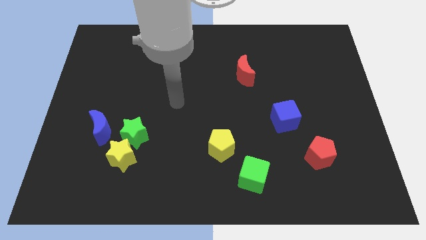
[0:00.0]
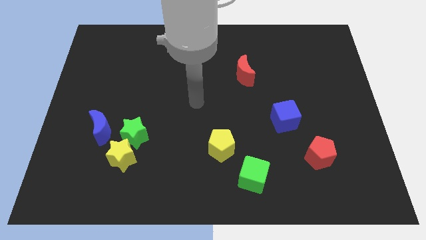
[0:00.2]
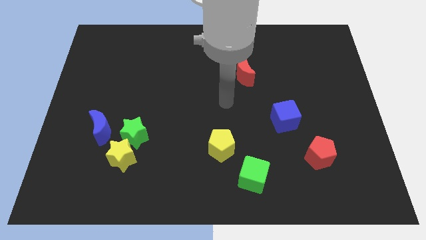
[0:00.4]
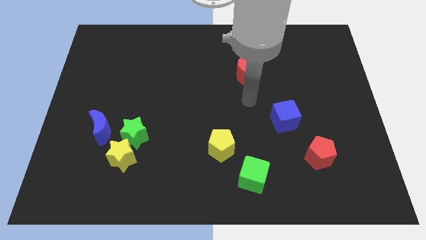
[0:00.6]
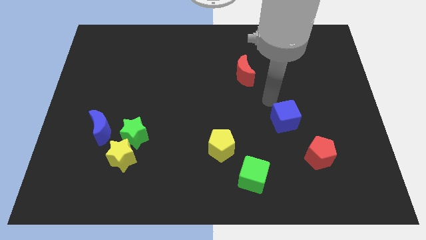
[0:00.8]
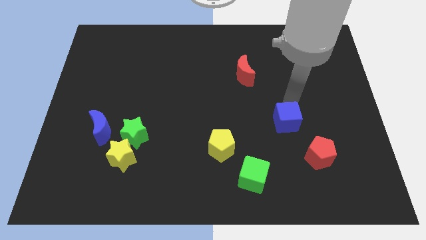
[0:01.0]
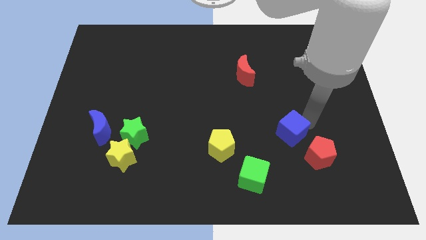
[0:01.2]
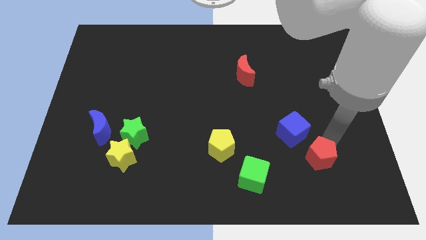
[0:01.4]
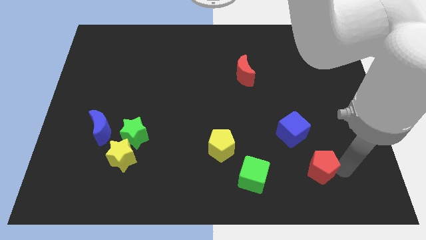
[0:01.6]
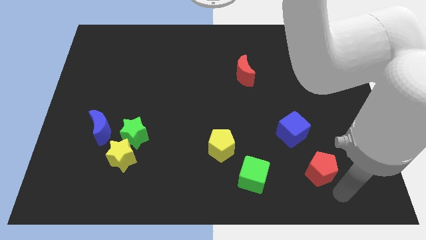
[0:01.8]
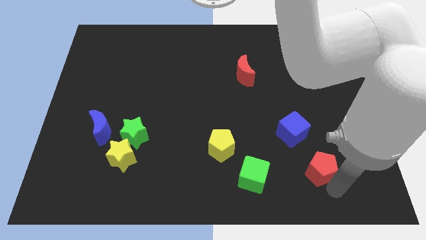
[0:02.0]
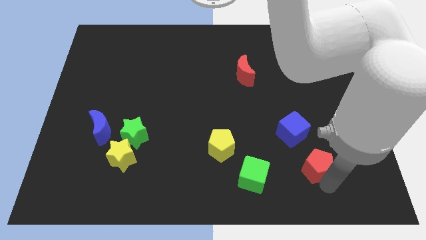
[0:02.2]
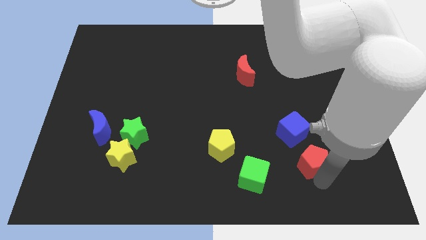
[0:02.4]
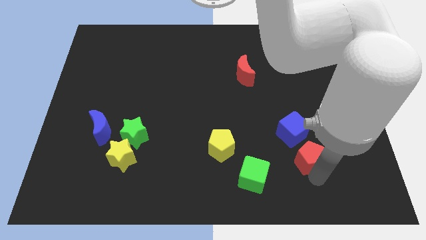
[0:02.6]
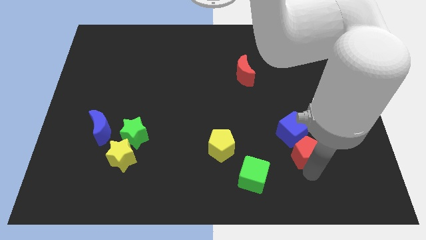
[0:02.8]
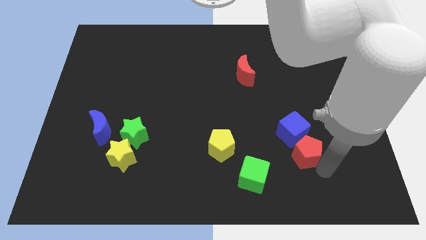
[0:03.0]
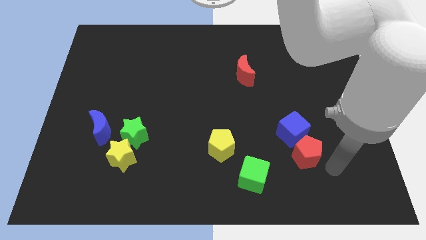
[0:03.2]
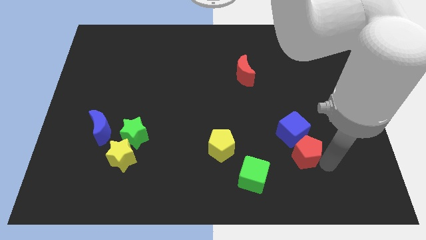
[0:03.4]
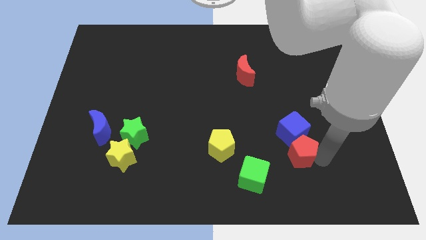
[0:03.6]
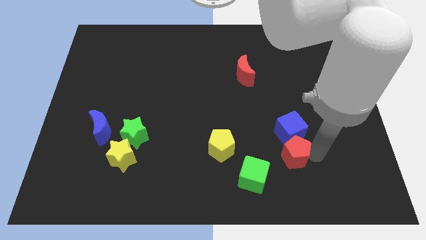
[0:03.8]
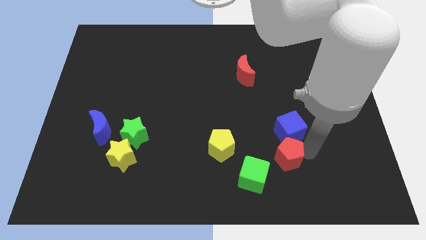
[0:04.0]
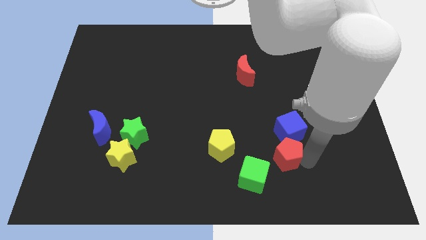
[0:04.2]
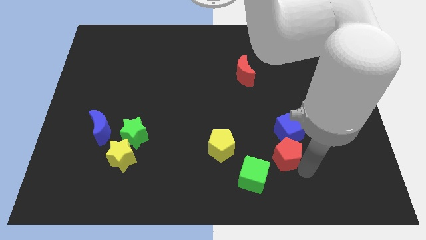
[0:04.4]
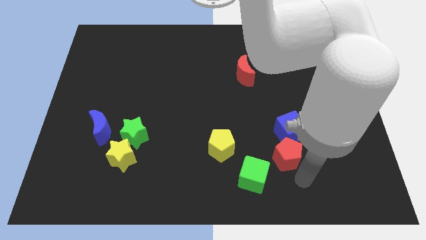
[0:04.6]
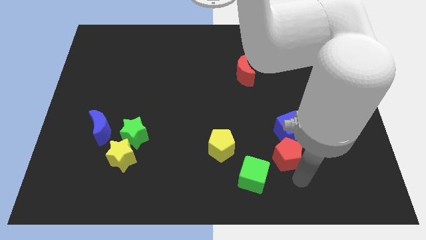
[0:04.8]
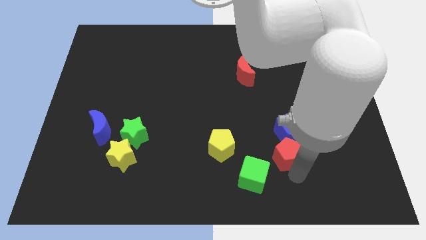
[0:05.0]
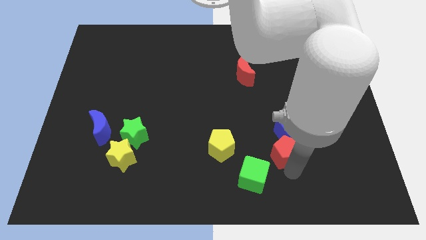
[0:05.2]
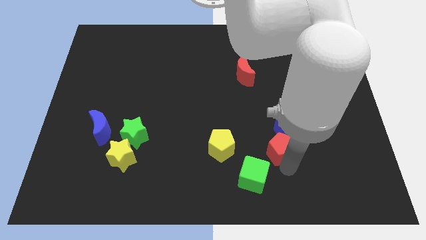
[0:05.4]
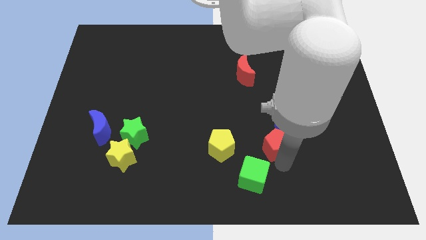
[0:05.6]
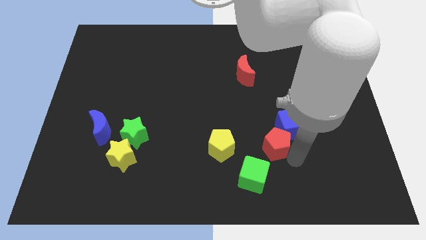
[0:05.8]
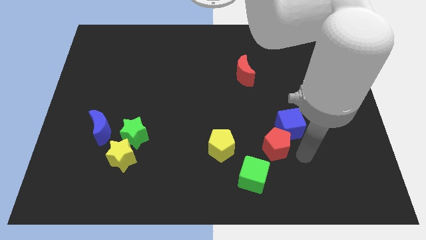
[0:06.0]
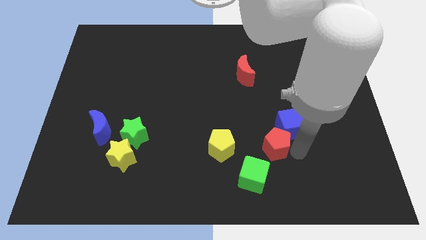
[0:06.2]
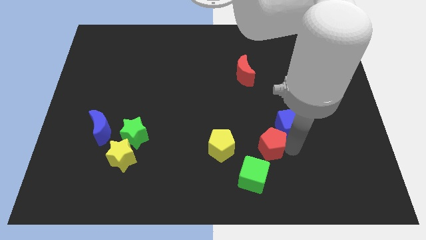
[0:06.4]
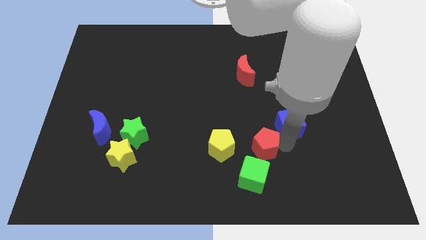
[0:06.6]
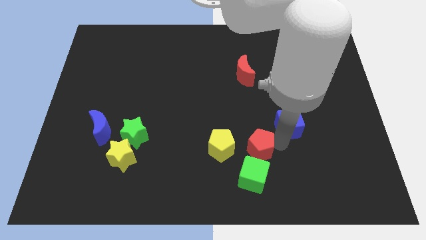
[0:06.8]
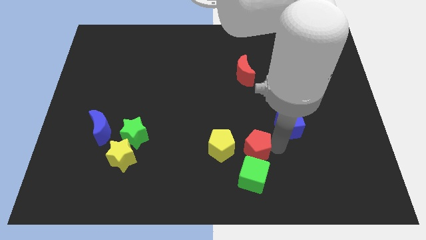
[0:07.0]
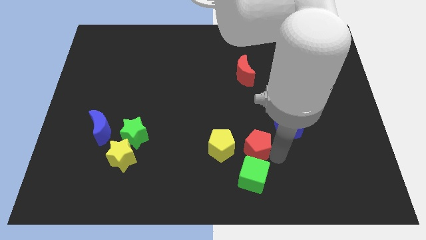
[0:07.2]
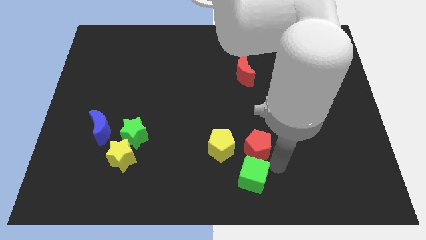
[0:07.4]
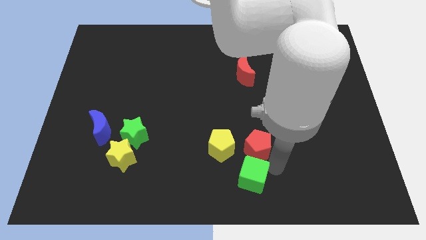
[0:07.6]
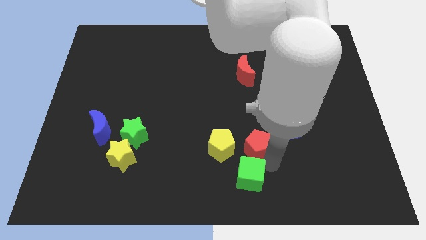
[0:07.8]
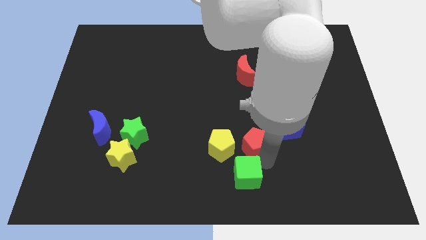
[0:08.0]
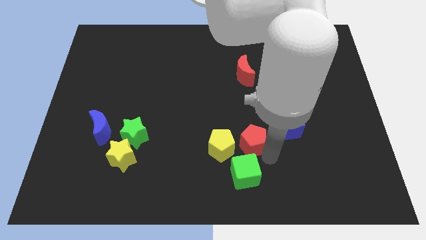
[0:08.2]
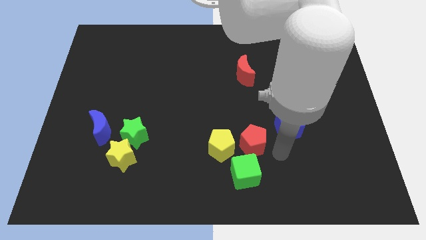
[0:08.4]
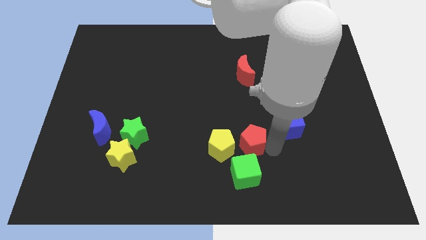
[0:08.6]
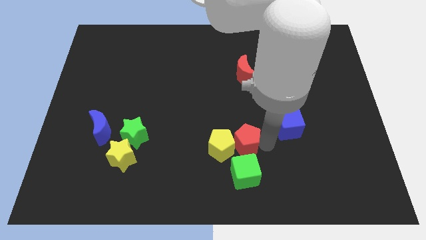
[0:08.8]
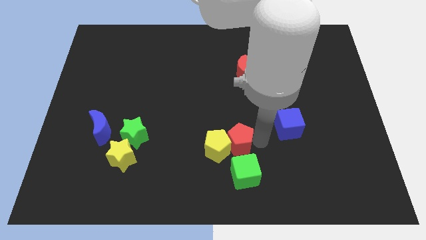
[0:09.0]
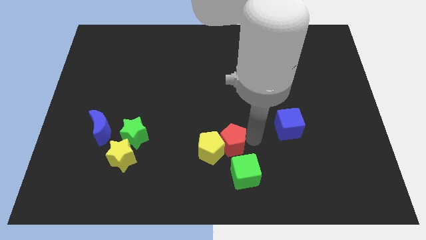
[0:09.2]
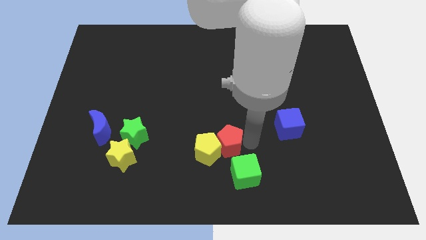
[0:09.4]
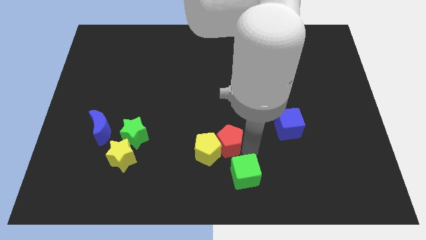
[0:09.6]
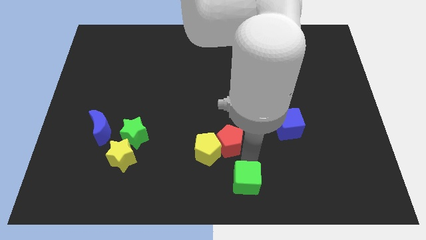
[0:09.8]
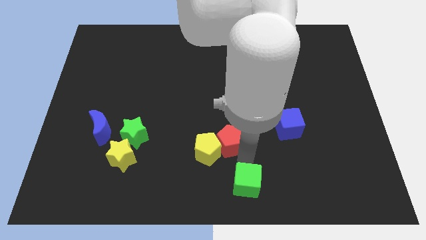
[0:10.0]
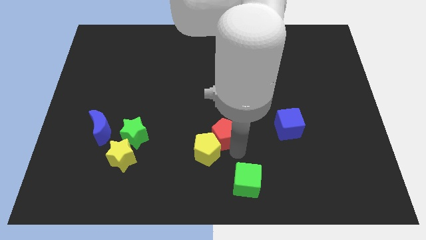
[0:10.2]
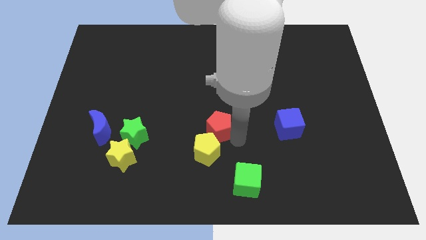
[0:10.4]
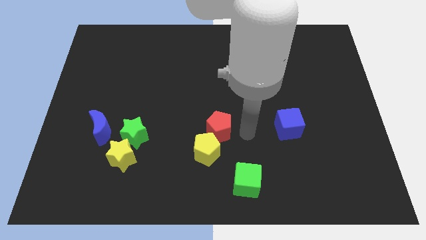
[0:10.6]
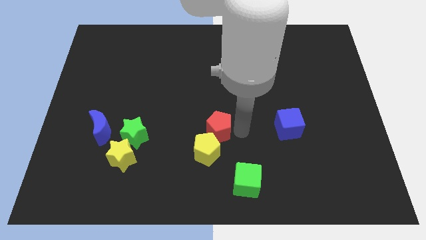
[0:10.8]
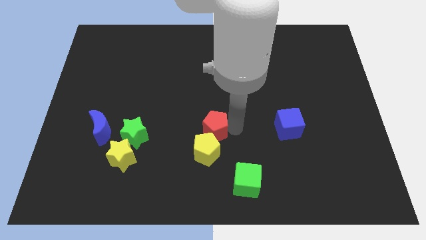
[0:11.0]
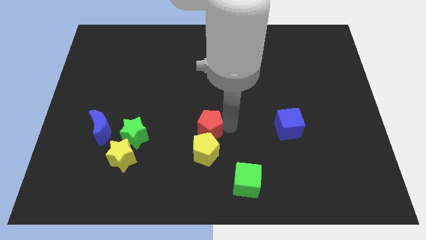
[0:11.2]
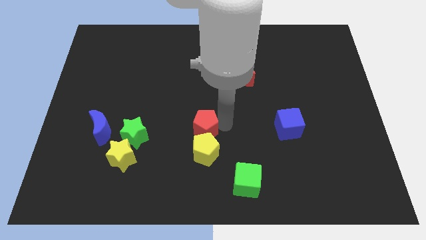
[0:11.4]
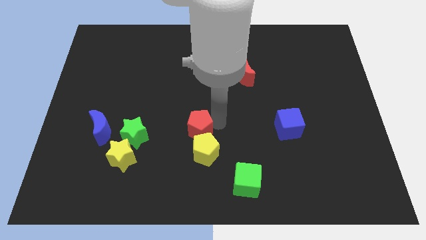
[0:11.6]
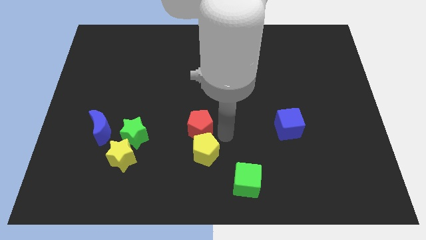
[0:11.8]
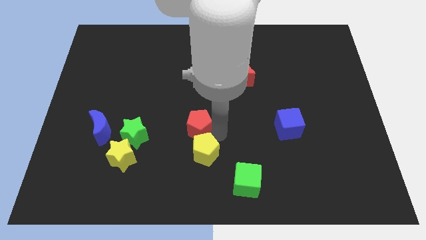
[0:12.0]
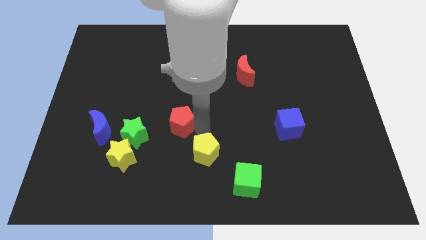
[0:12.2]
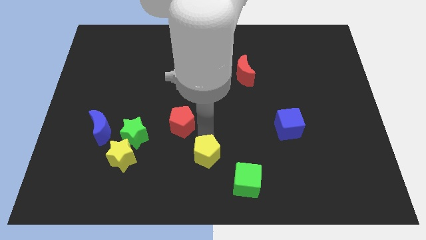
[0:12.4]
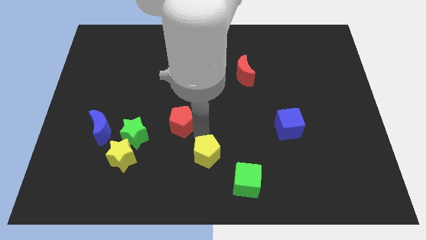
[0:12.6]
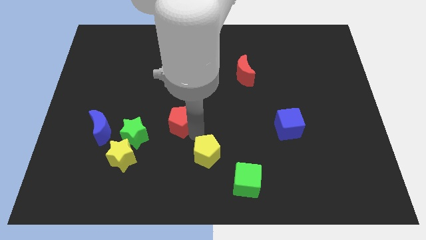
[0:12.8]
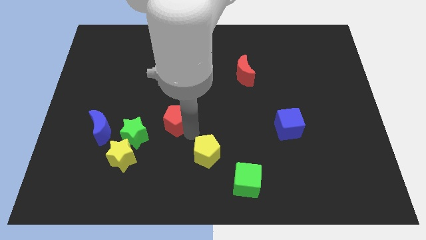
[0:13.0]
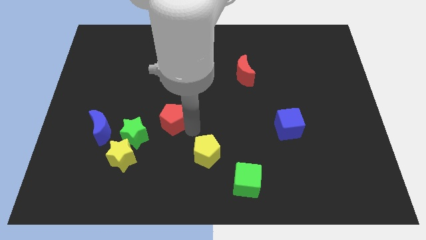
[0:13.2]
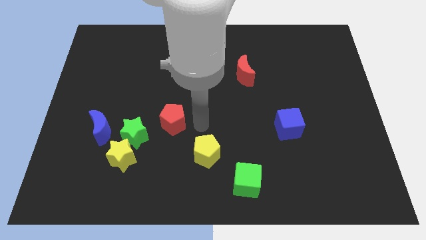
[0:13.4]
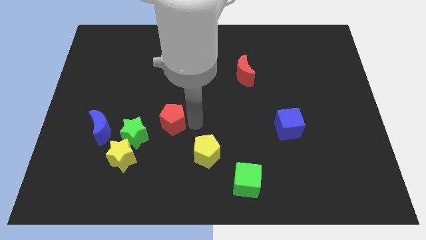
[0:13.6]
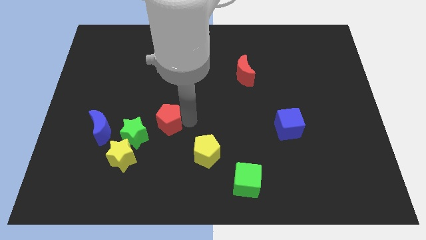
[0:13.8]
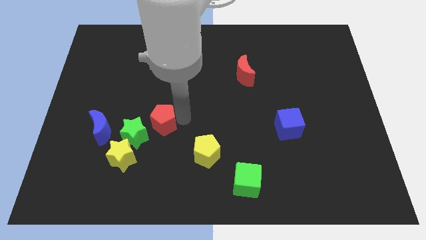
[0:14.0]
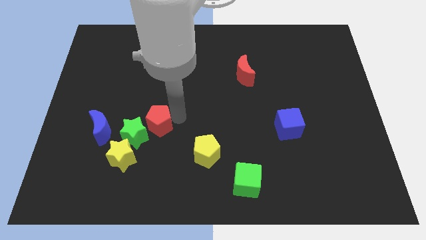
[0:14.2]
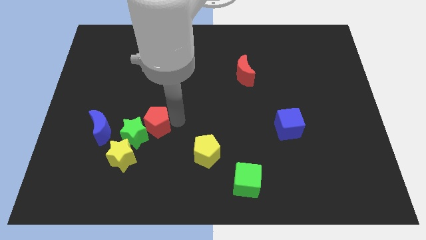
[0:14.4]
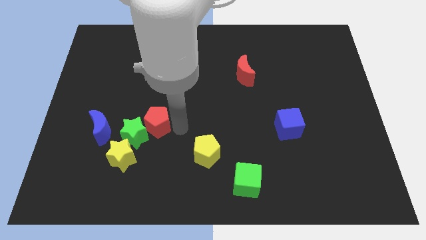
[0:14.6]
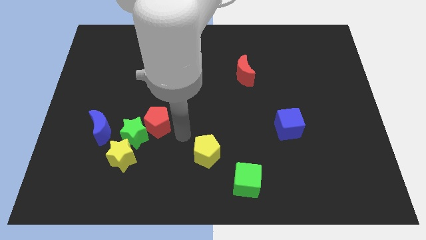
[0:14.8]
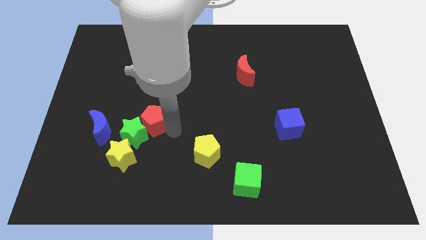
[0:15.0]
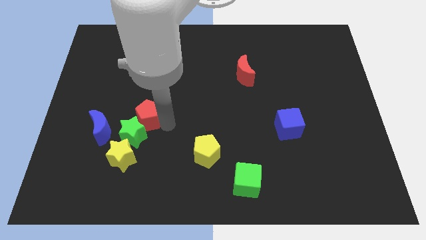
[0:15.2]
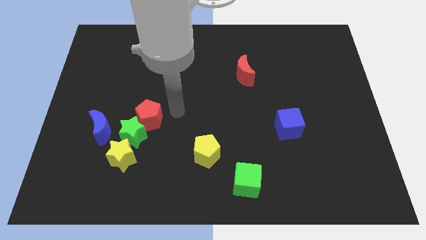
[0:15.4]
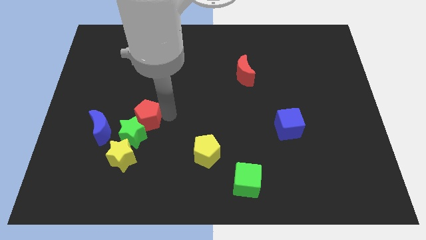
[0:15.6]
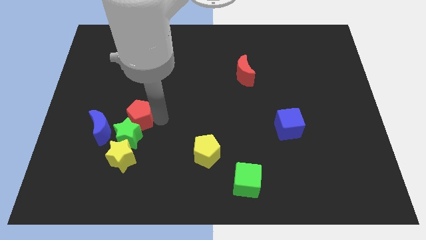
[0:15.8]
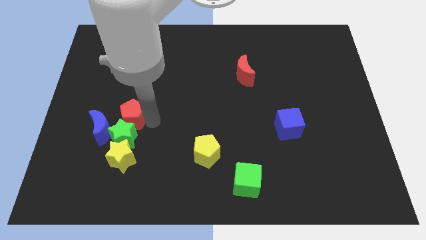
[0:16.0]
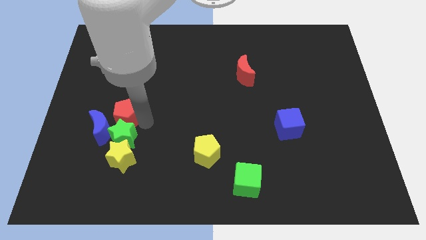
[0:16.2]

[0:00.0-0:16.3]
push the red pentagon to the blue moon
